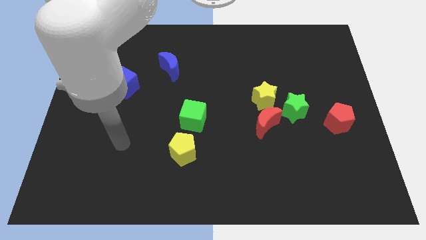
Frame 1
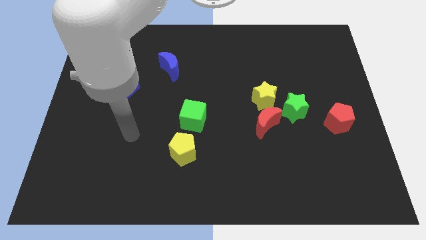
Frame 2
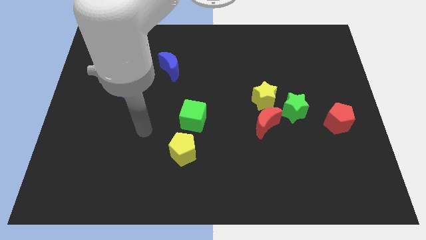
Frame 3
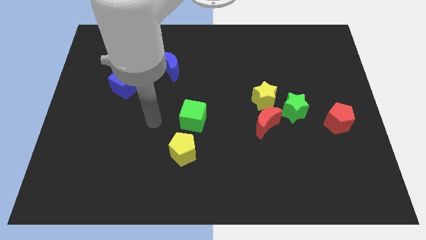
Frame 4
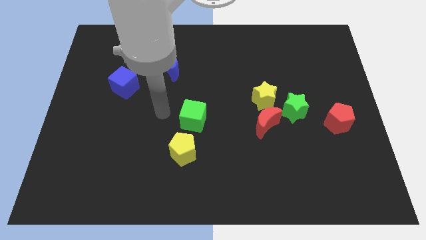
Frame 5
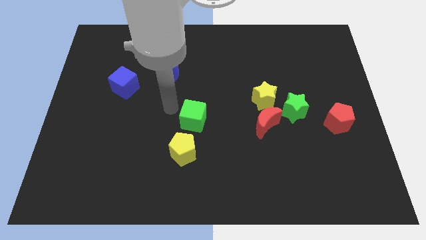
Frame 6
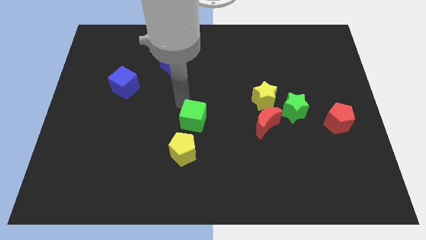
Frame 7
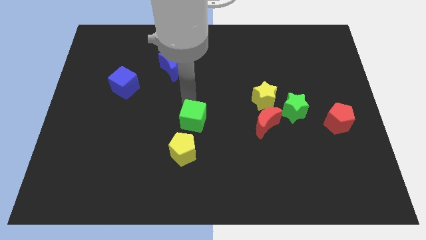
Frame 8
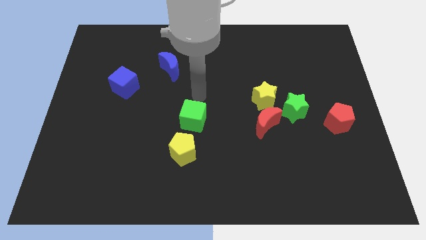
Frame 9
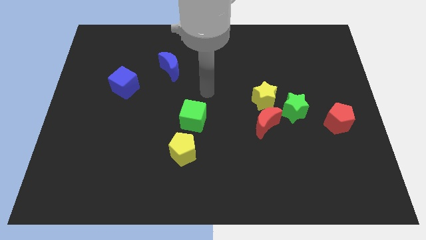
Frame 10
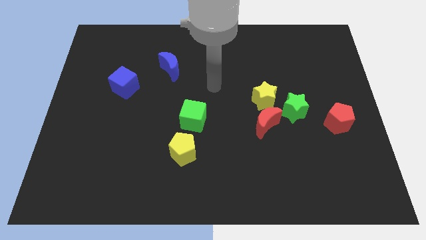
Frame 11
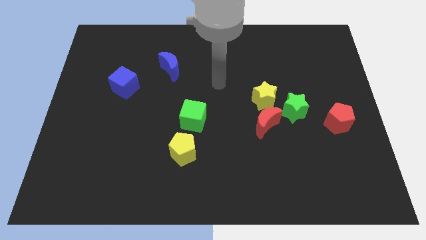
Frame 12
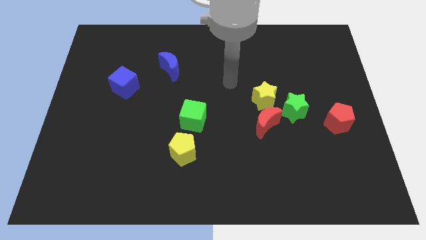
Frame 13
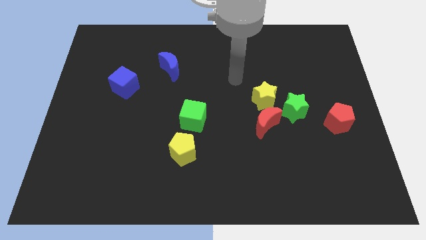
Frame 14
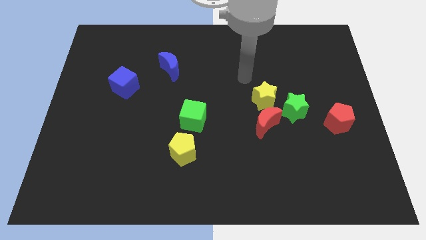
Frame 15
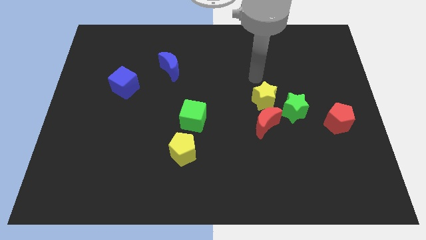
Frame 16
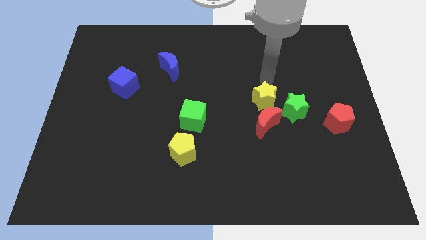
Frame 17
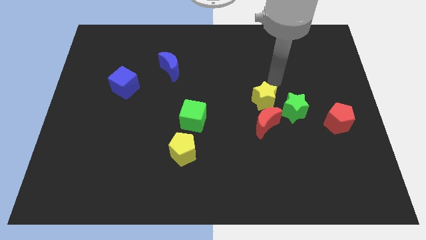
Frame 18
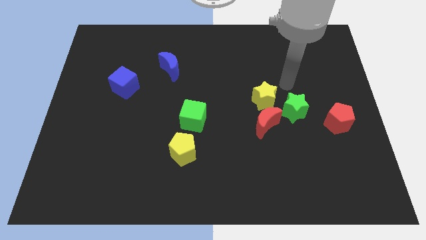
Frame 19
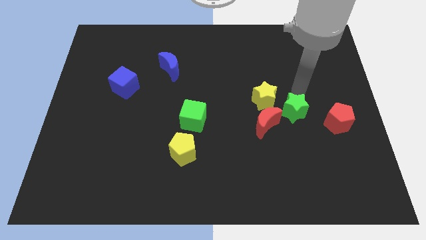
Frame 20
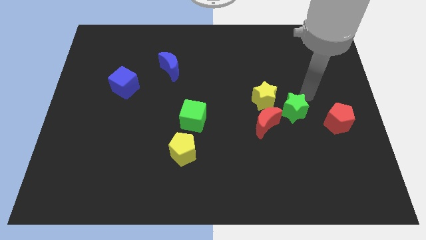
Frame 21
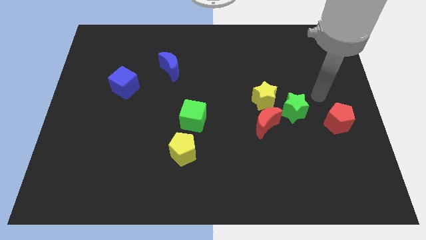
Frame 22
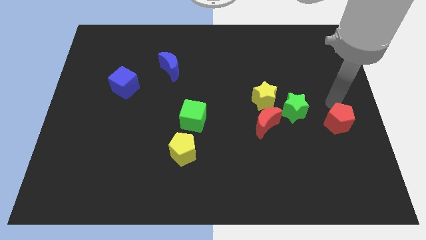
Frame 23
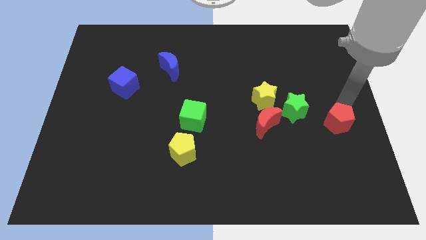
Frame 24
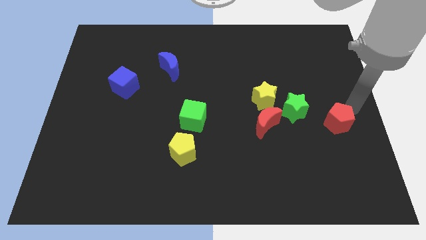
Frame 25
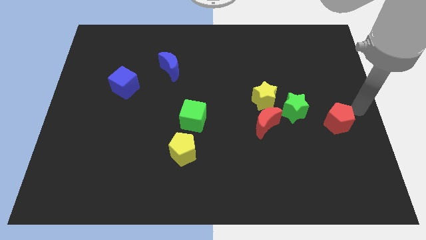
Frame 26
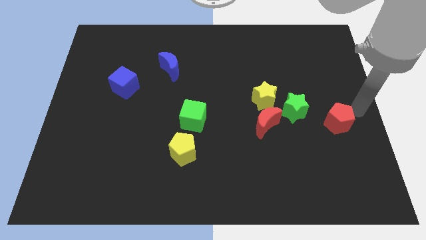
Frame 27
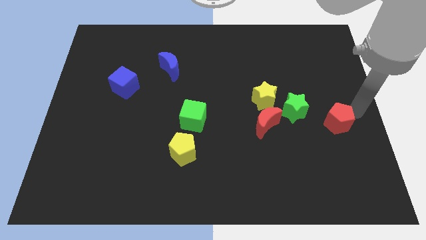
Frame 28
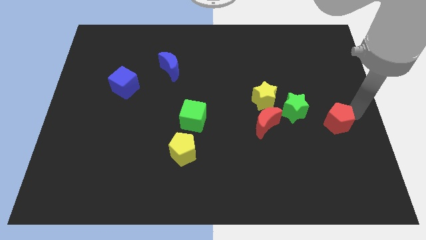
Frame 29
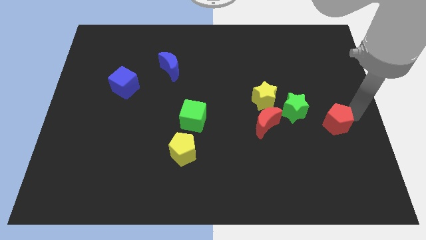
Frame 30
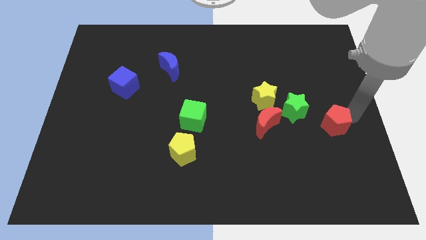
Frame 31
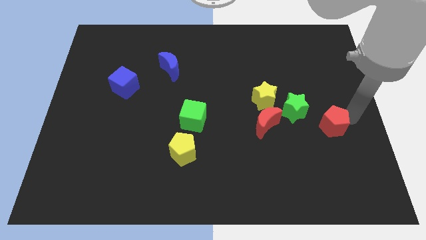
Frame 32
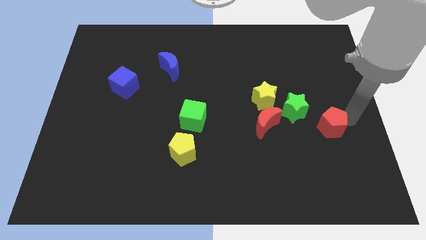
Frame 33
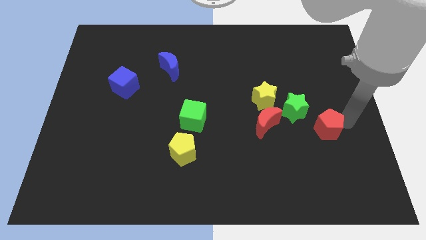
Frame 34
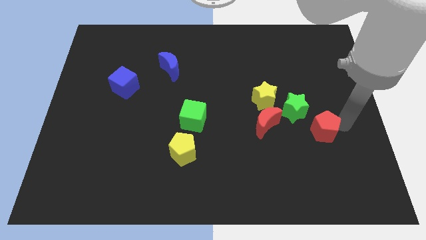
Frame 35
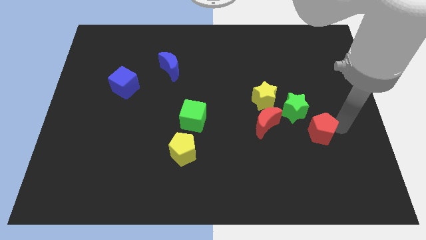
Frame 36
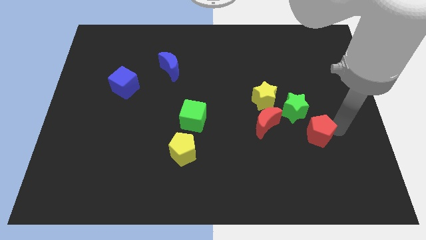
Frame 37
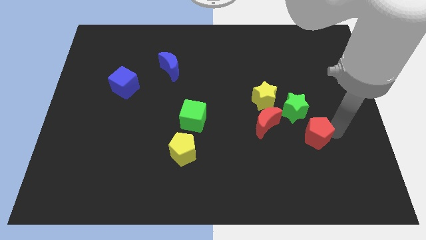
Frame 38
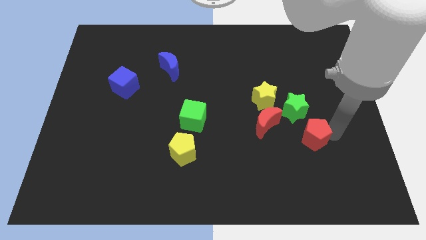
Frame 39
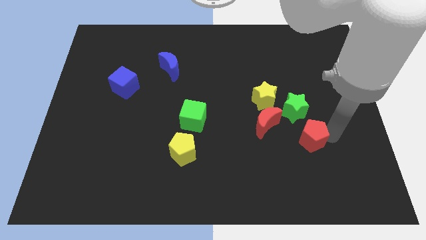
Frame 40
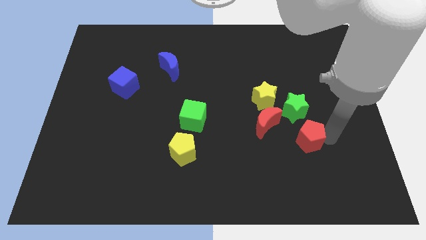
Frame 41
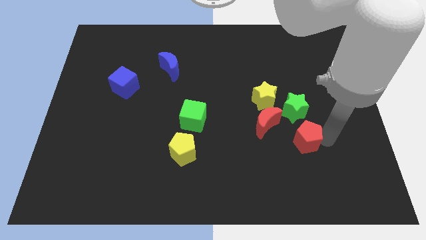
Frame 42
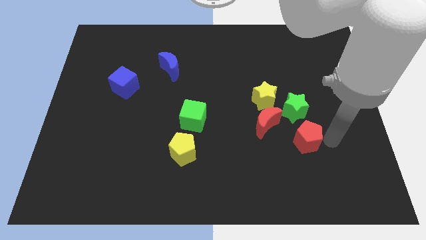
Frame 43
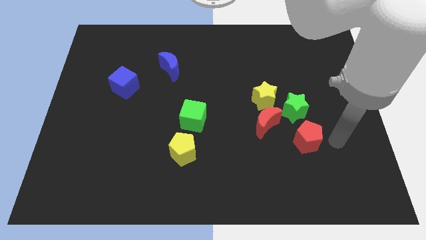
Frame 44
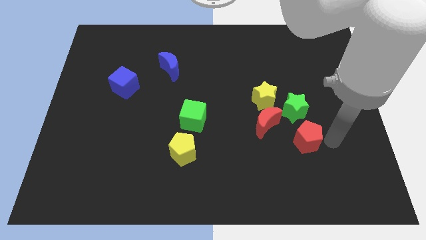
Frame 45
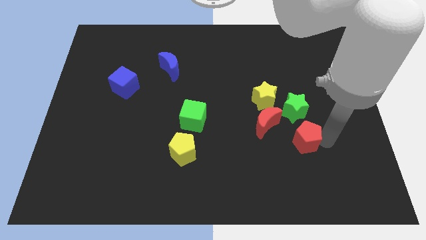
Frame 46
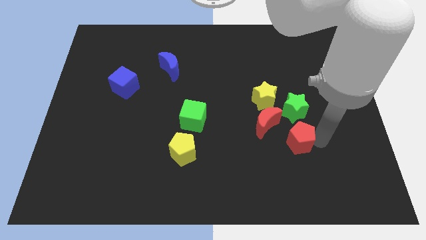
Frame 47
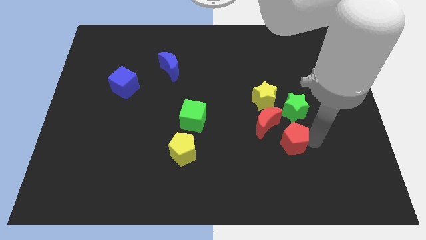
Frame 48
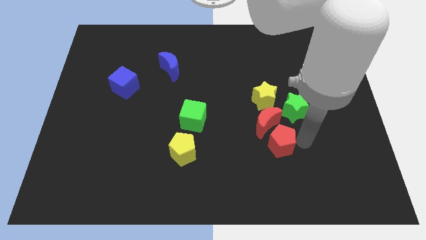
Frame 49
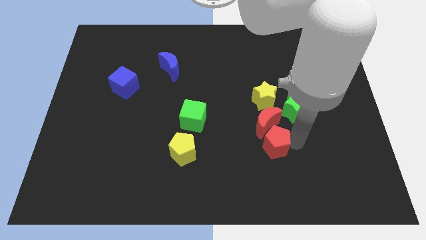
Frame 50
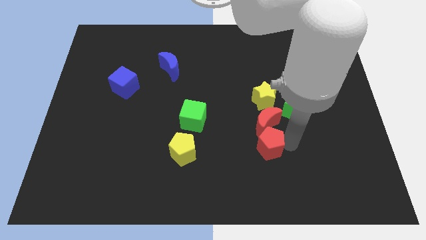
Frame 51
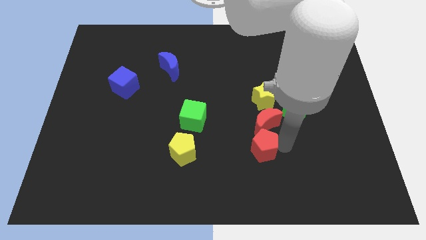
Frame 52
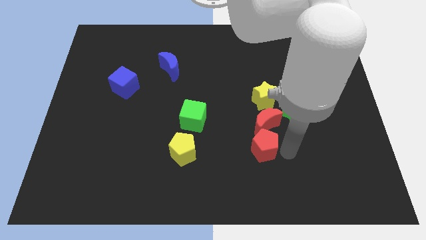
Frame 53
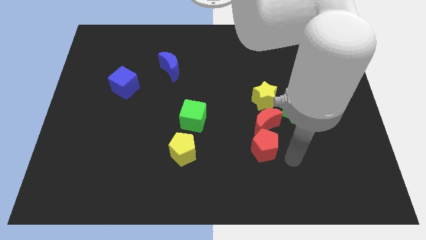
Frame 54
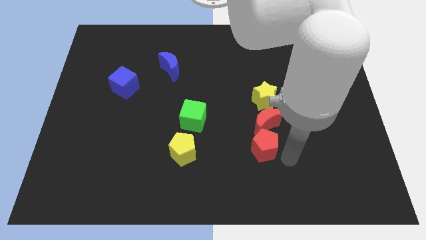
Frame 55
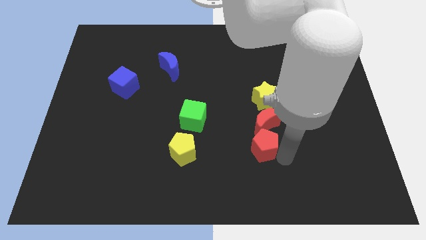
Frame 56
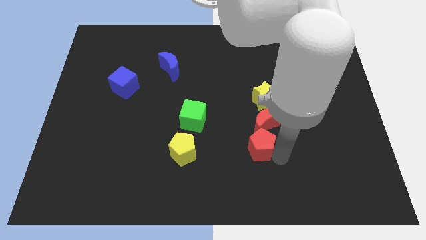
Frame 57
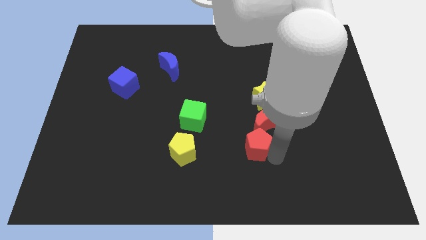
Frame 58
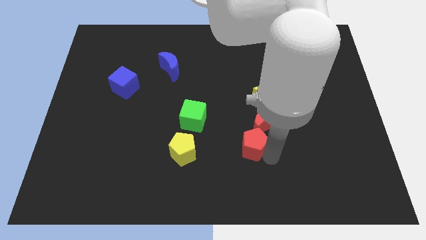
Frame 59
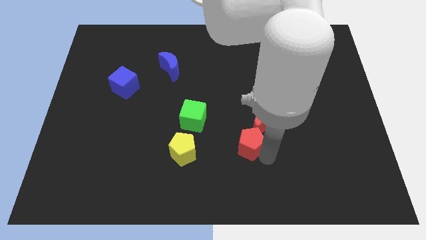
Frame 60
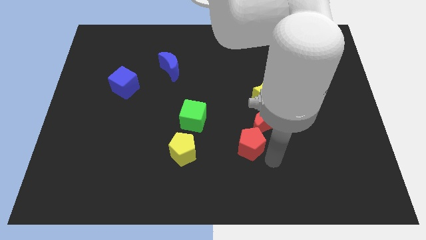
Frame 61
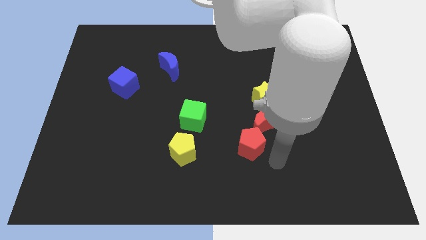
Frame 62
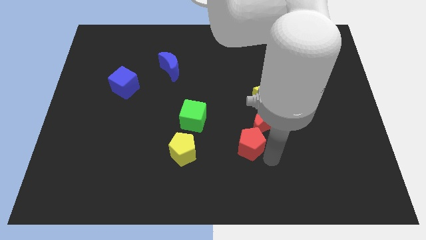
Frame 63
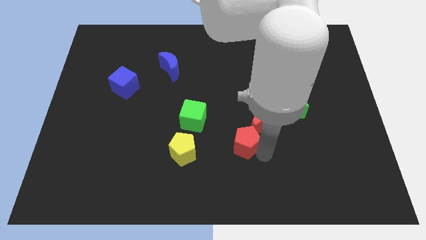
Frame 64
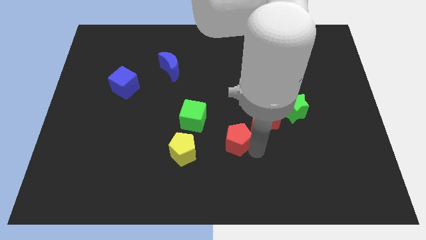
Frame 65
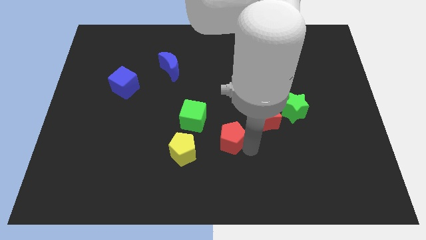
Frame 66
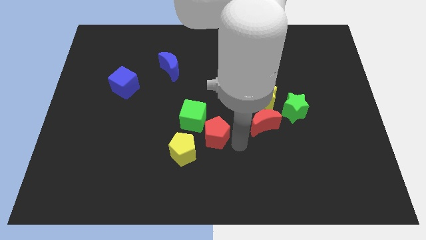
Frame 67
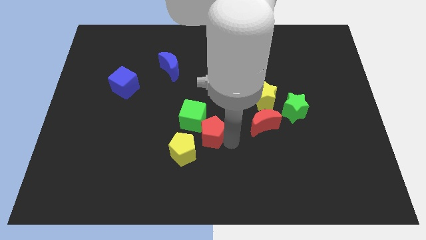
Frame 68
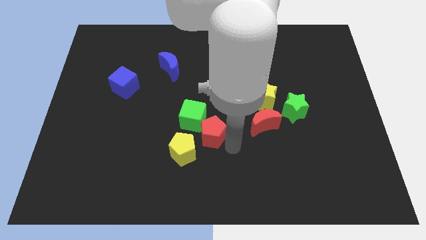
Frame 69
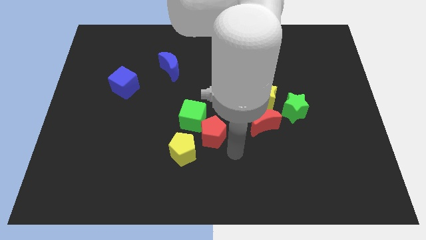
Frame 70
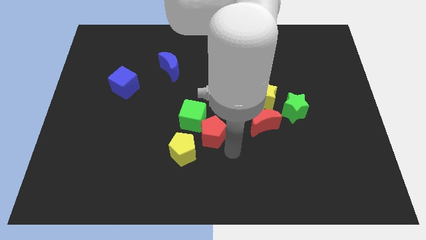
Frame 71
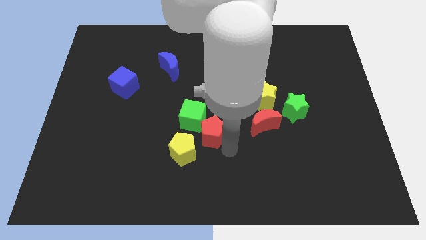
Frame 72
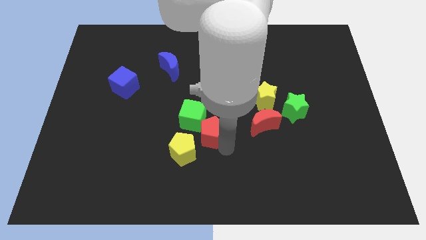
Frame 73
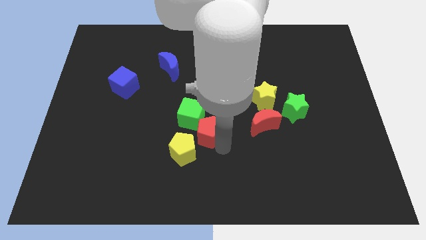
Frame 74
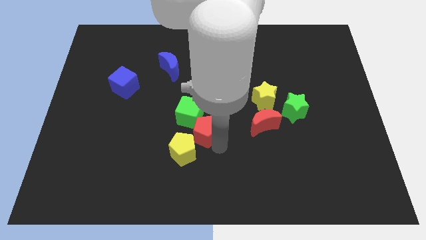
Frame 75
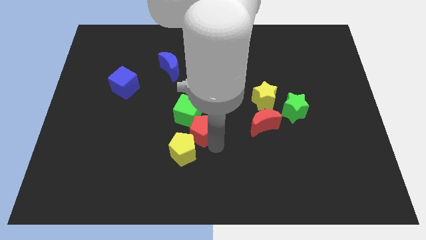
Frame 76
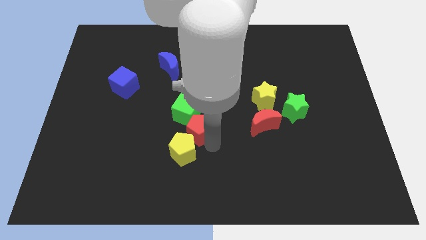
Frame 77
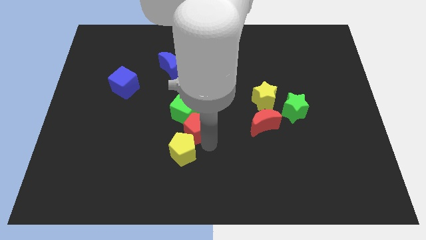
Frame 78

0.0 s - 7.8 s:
move the red pentagon next to the green cube
